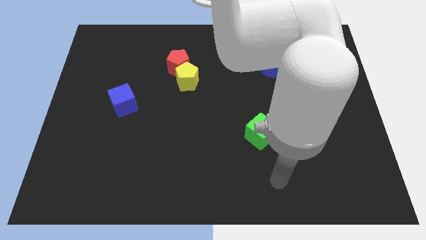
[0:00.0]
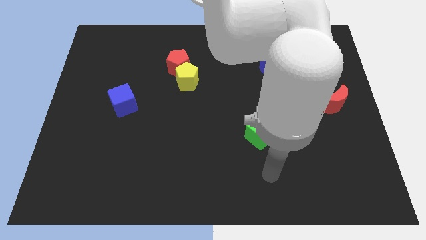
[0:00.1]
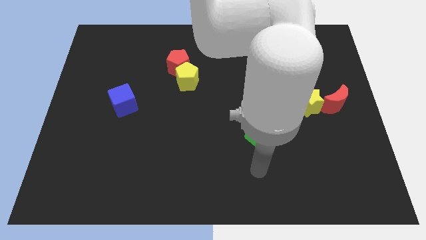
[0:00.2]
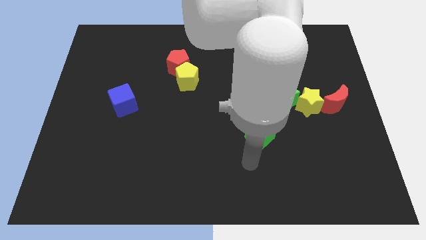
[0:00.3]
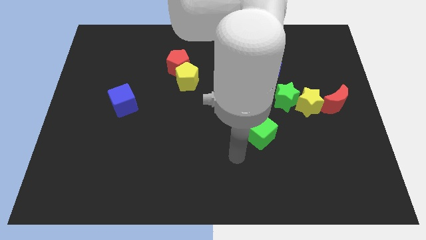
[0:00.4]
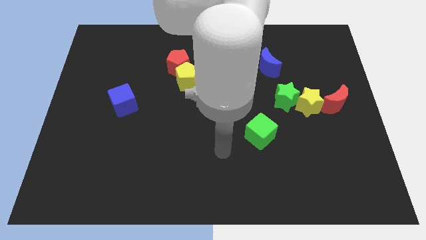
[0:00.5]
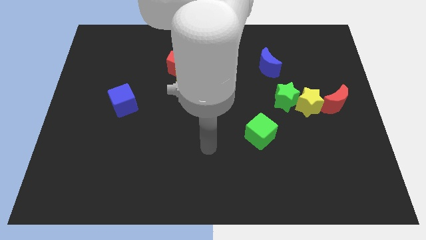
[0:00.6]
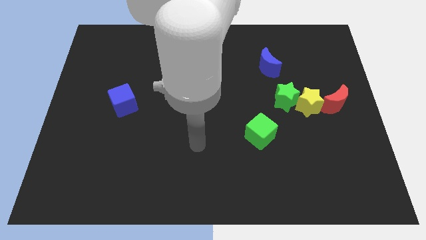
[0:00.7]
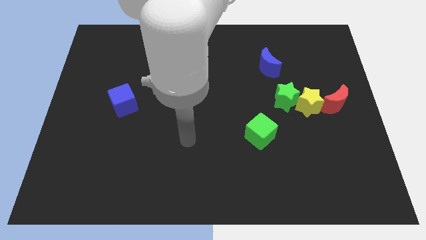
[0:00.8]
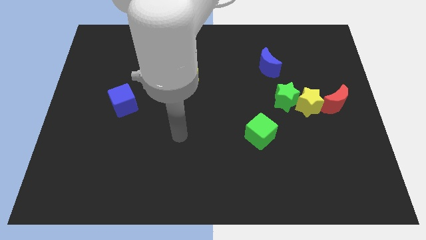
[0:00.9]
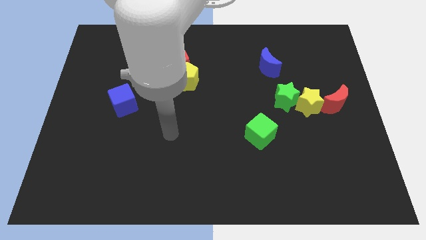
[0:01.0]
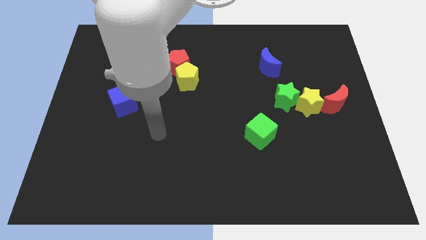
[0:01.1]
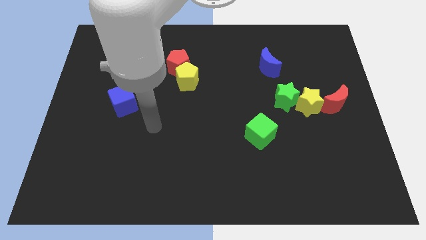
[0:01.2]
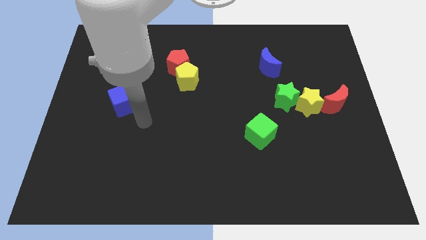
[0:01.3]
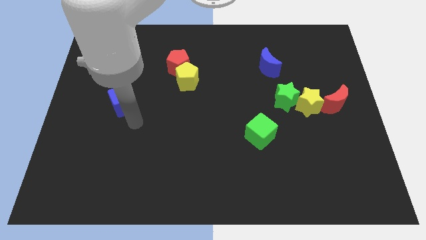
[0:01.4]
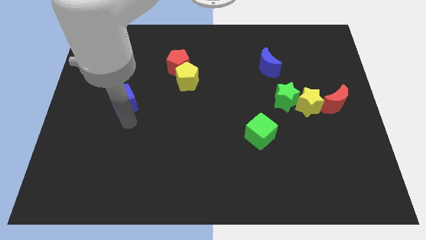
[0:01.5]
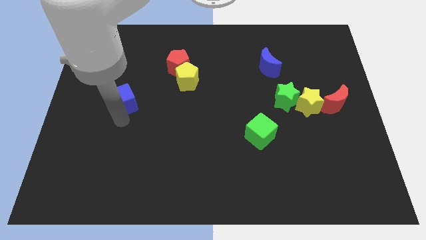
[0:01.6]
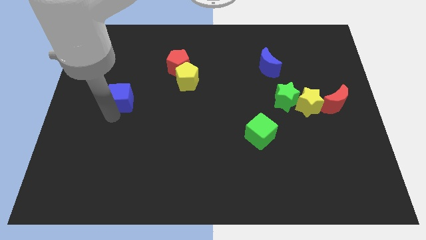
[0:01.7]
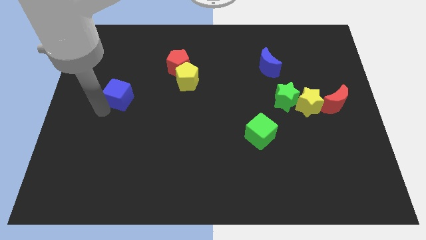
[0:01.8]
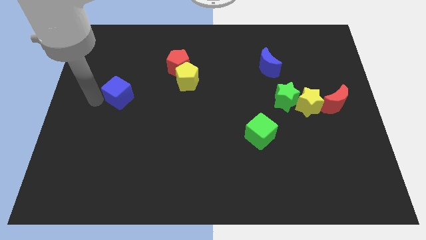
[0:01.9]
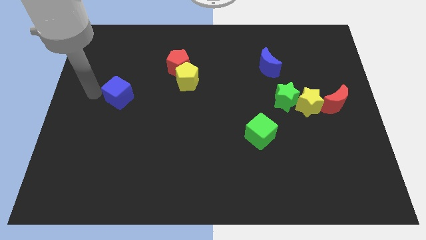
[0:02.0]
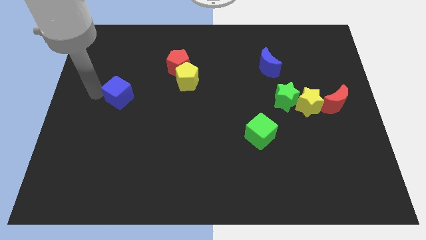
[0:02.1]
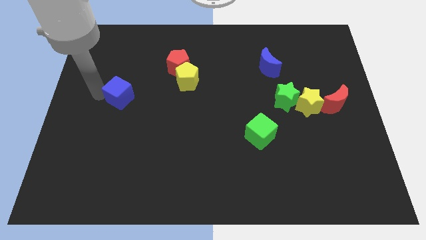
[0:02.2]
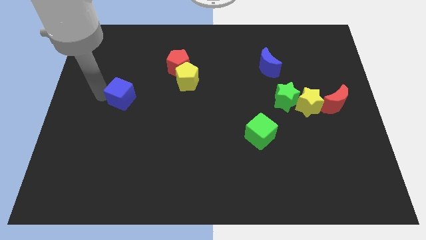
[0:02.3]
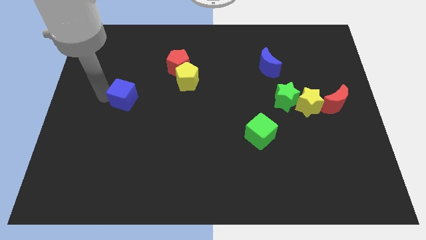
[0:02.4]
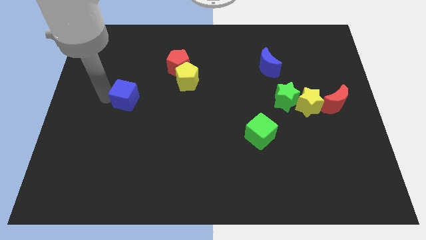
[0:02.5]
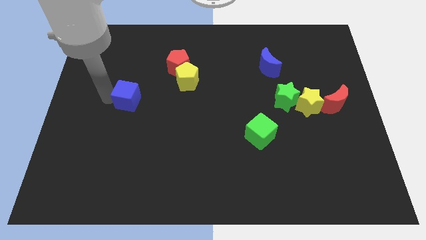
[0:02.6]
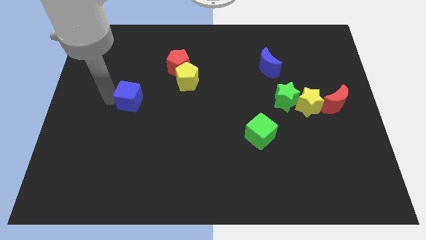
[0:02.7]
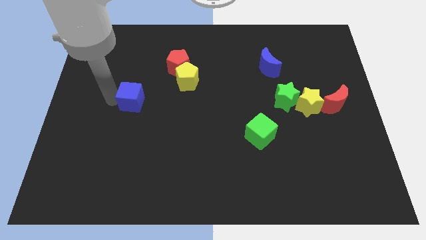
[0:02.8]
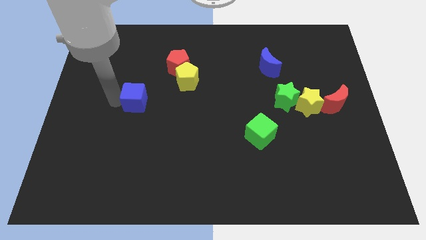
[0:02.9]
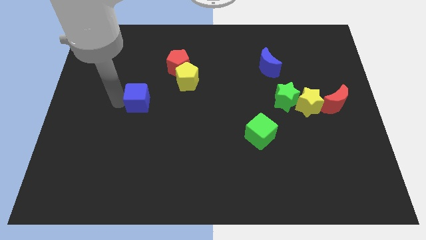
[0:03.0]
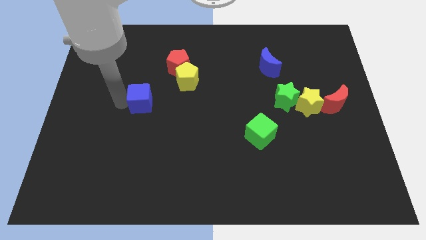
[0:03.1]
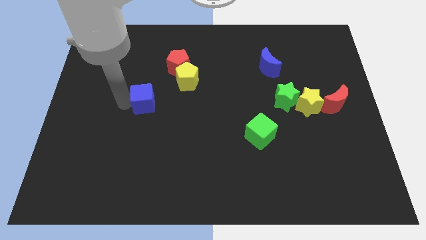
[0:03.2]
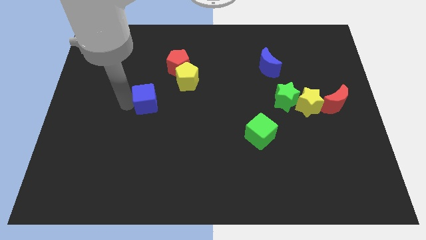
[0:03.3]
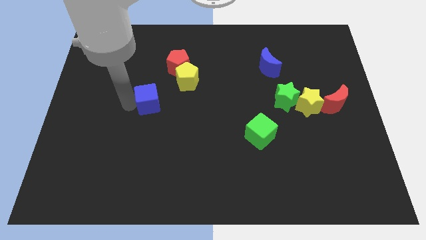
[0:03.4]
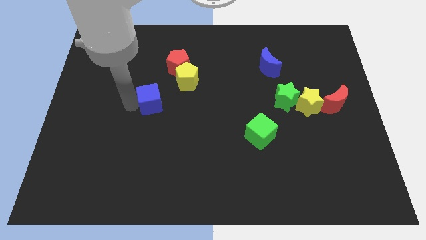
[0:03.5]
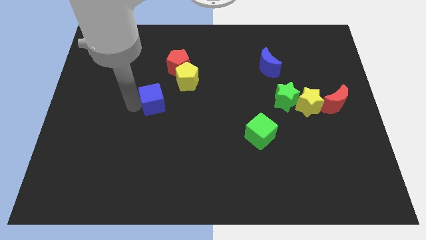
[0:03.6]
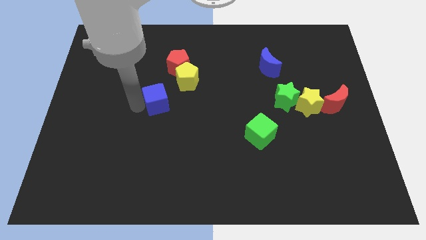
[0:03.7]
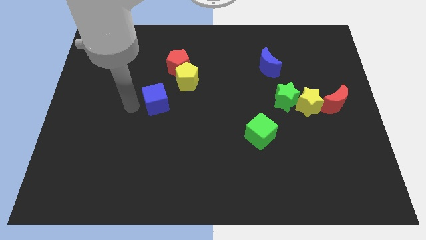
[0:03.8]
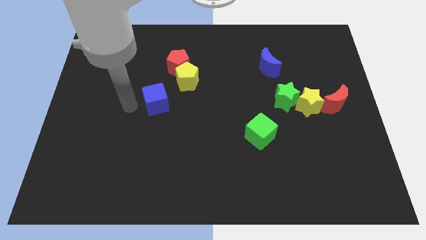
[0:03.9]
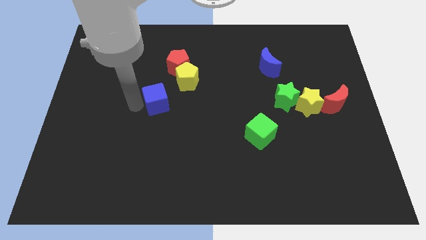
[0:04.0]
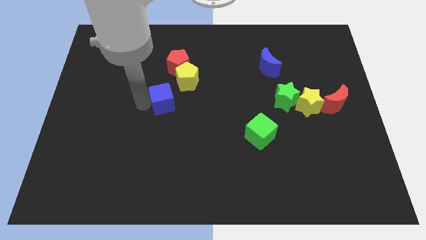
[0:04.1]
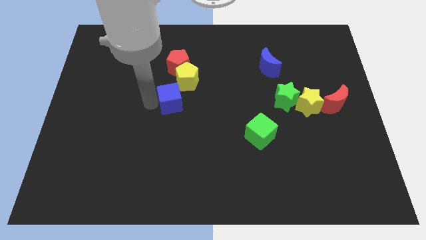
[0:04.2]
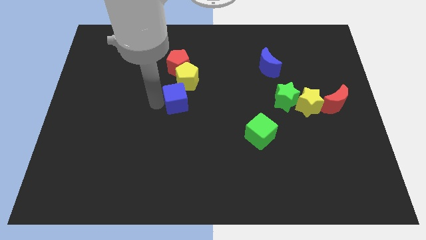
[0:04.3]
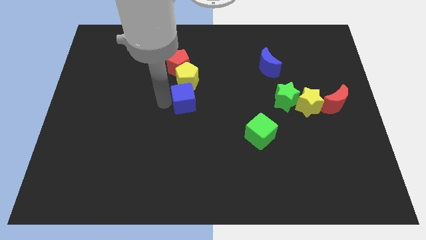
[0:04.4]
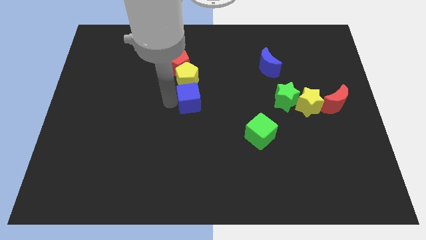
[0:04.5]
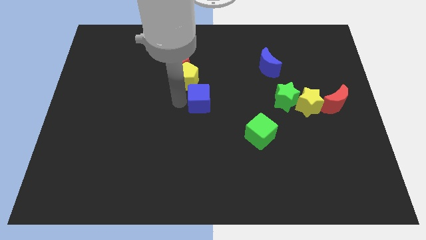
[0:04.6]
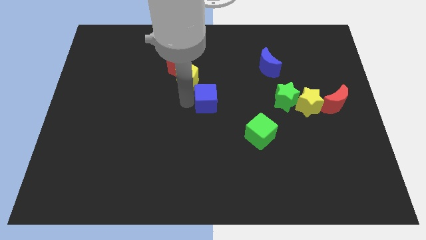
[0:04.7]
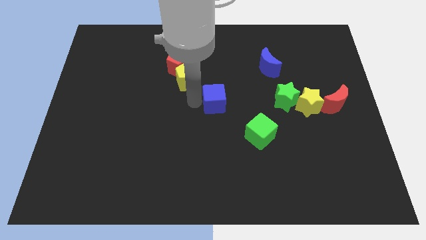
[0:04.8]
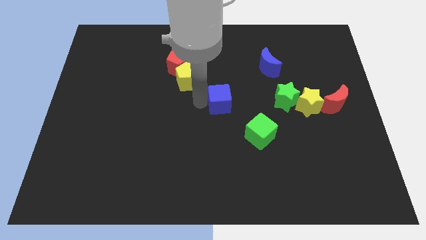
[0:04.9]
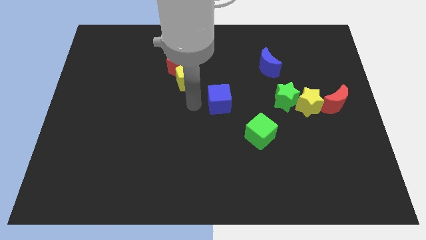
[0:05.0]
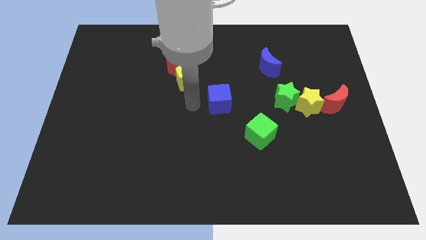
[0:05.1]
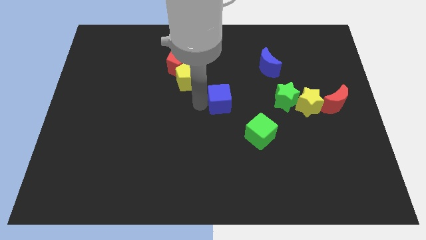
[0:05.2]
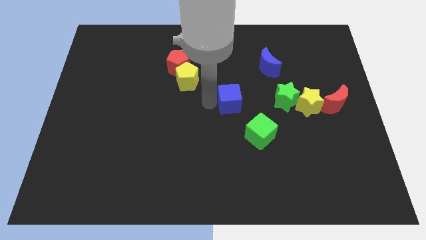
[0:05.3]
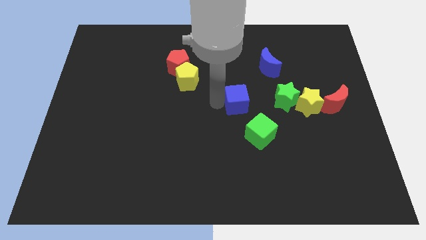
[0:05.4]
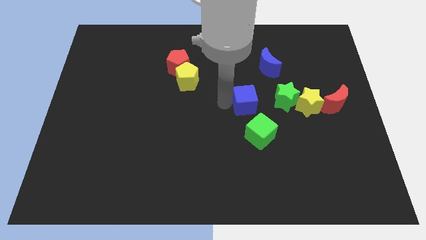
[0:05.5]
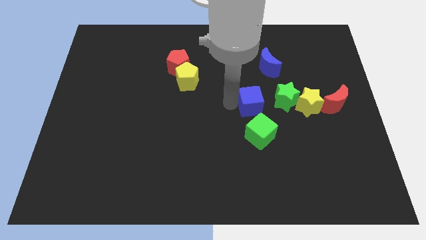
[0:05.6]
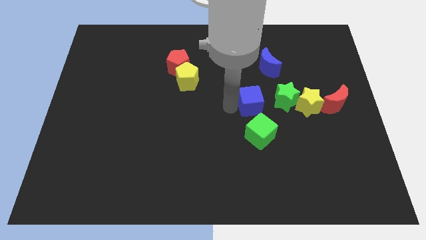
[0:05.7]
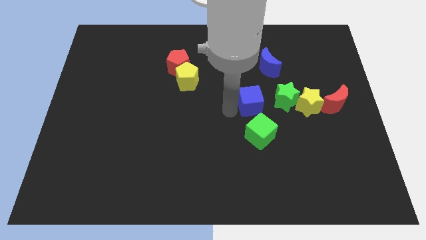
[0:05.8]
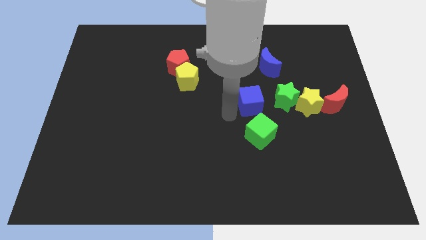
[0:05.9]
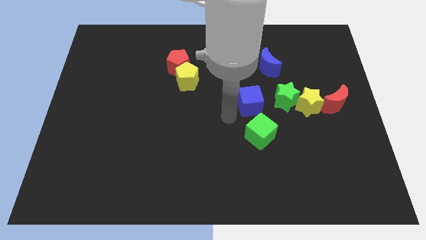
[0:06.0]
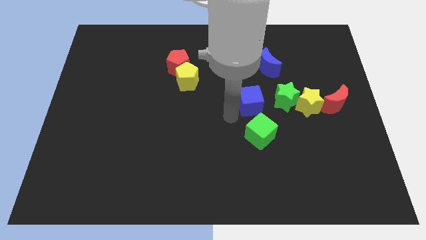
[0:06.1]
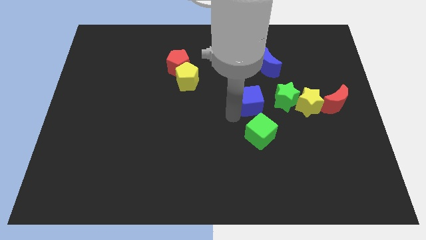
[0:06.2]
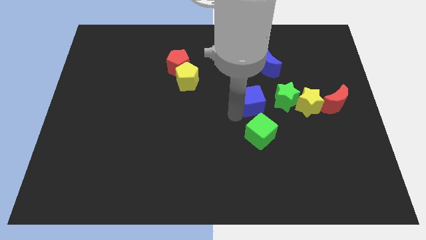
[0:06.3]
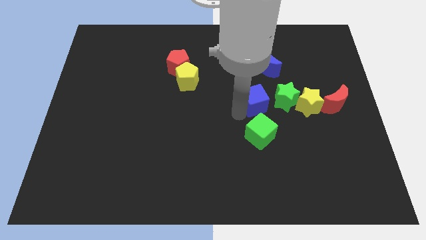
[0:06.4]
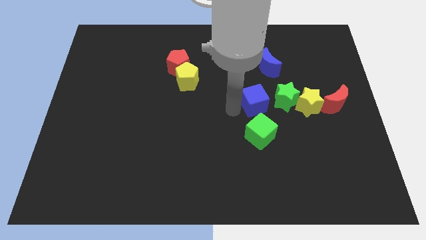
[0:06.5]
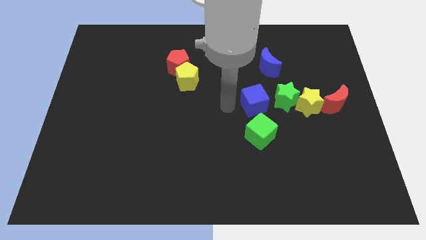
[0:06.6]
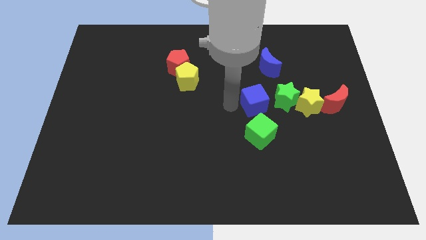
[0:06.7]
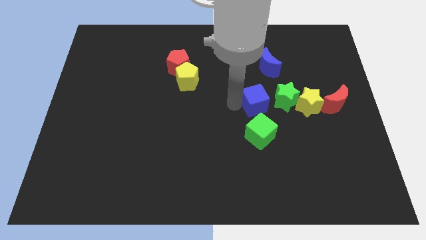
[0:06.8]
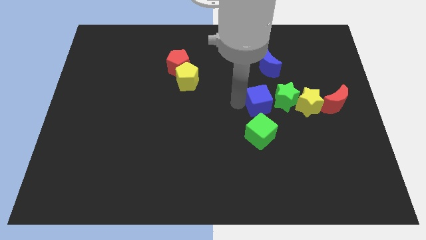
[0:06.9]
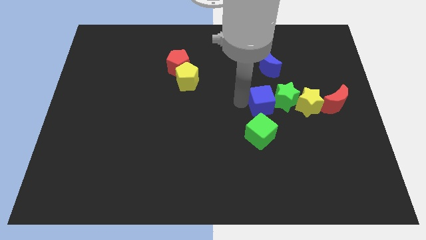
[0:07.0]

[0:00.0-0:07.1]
push the blue cube towards the green star

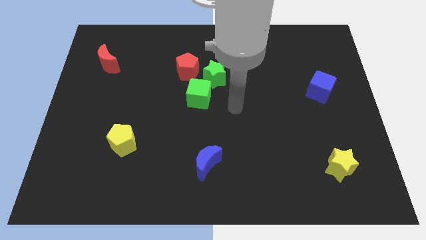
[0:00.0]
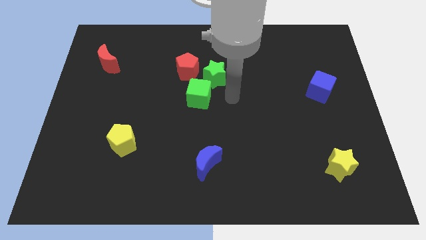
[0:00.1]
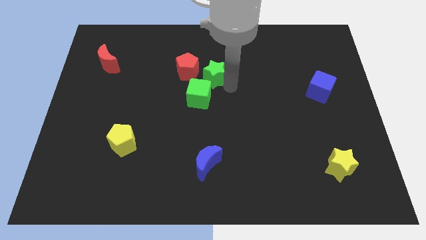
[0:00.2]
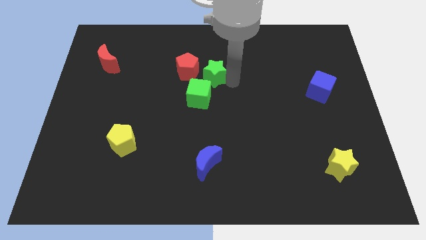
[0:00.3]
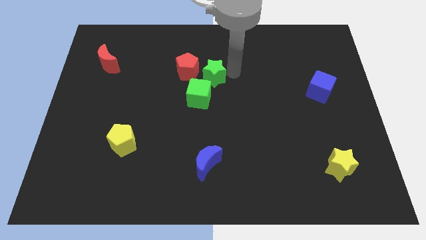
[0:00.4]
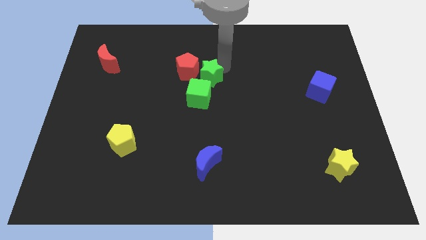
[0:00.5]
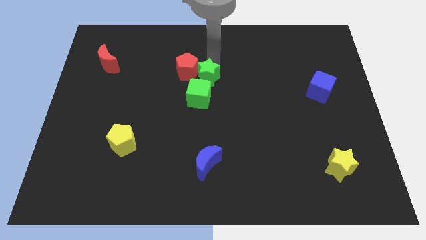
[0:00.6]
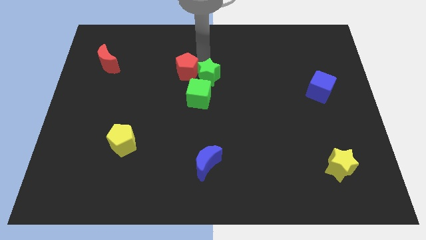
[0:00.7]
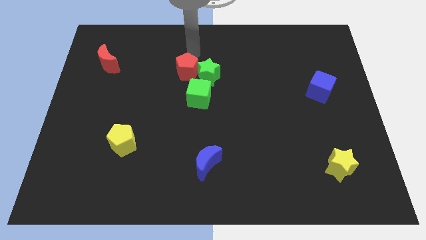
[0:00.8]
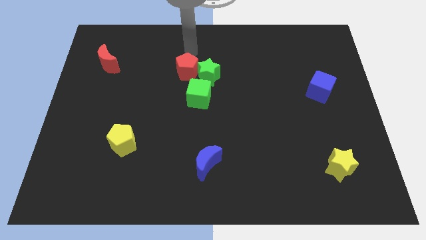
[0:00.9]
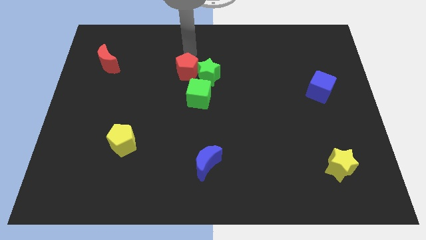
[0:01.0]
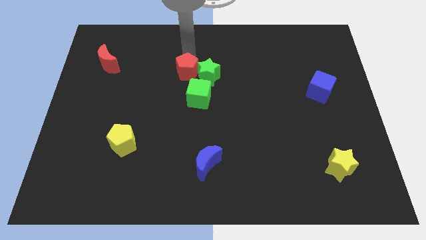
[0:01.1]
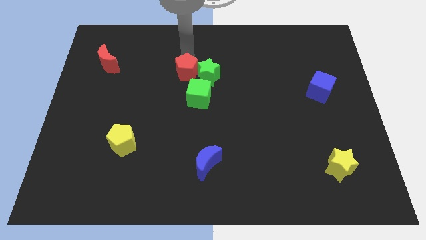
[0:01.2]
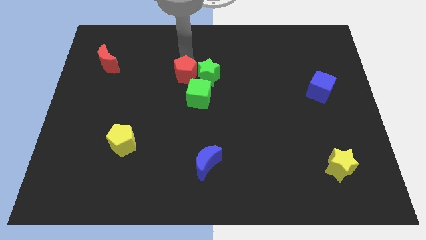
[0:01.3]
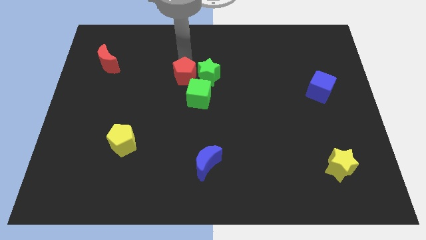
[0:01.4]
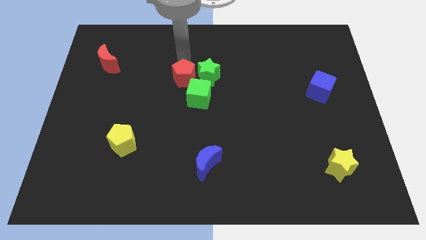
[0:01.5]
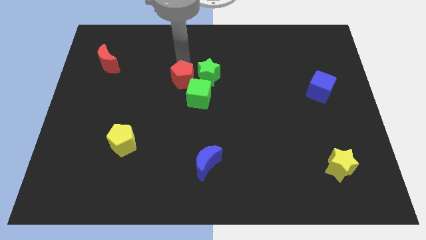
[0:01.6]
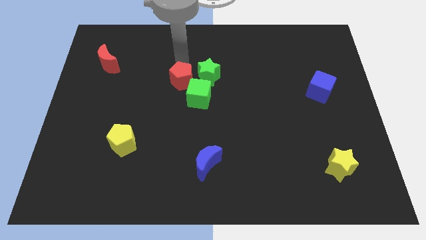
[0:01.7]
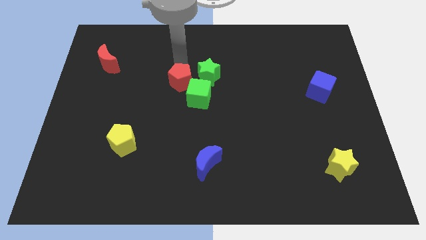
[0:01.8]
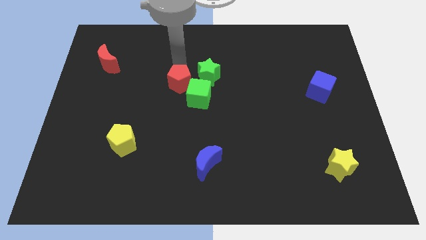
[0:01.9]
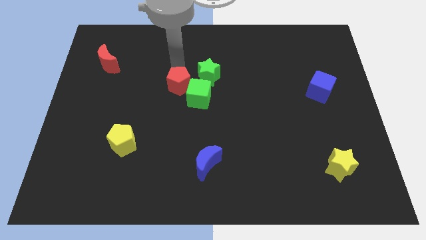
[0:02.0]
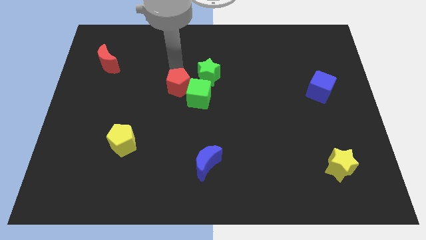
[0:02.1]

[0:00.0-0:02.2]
move the red pentagon close to the green cube
